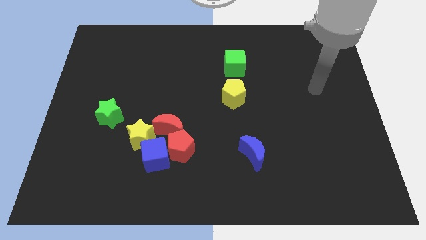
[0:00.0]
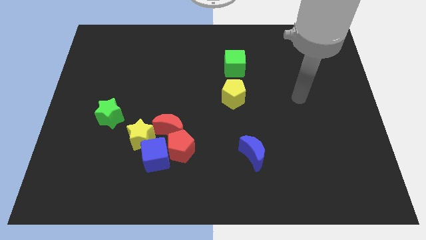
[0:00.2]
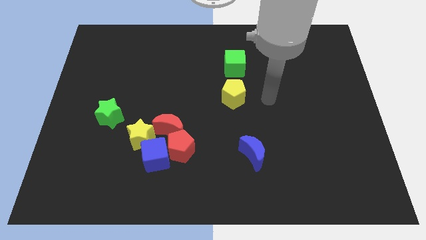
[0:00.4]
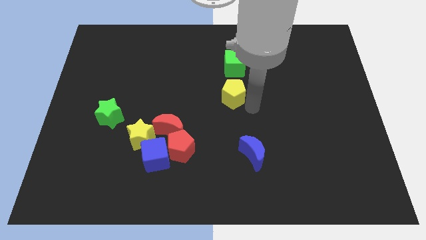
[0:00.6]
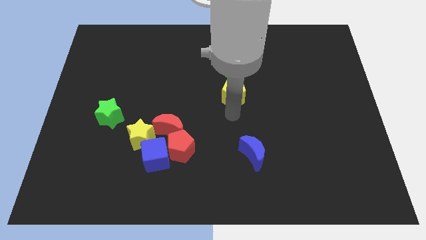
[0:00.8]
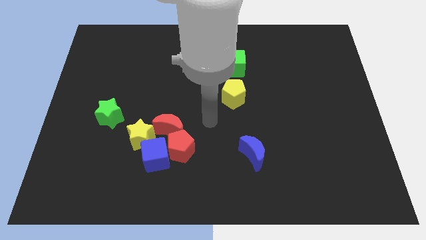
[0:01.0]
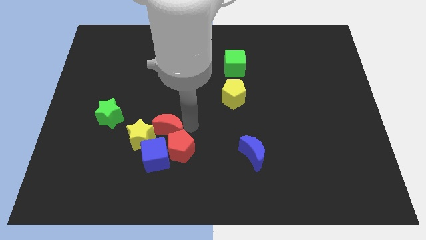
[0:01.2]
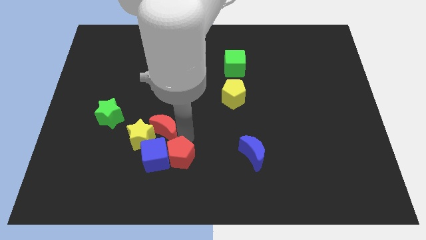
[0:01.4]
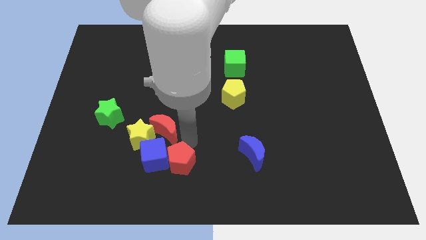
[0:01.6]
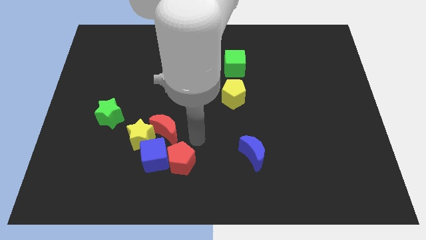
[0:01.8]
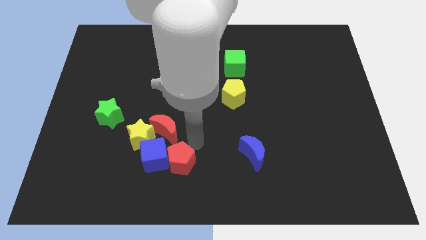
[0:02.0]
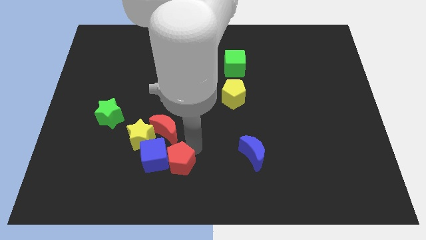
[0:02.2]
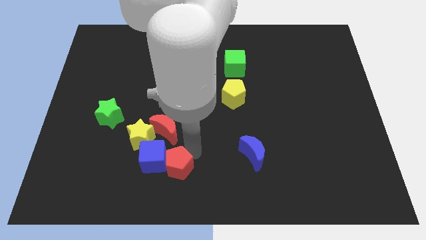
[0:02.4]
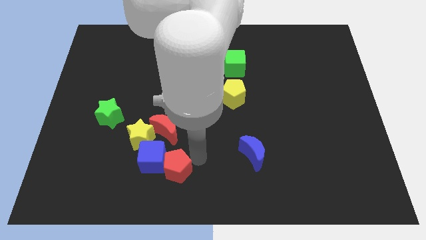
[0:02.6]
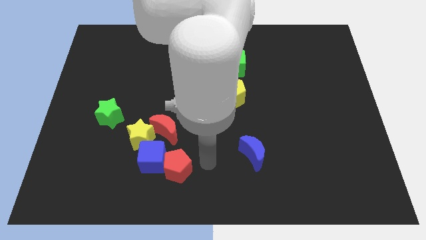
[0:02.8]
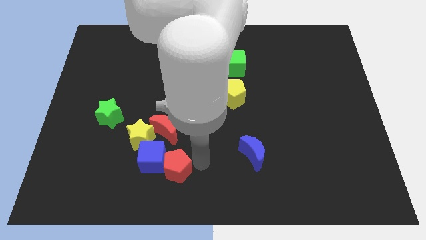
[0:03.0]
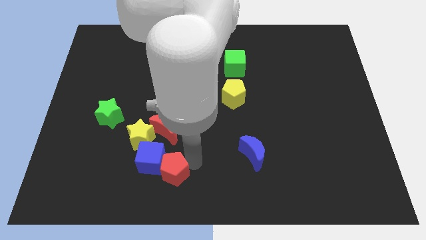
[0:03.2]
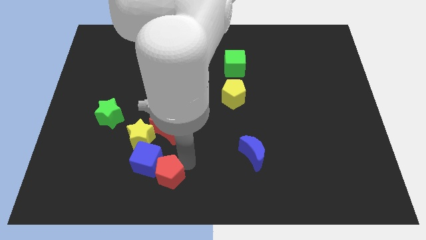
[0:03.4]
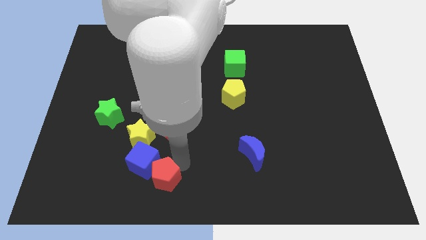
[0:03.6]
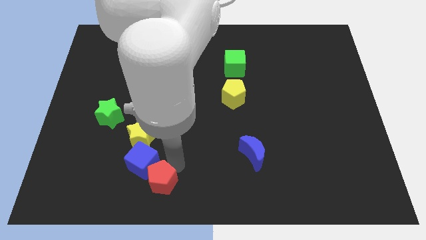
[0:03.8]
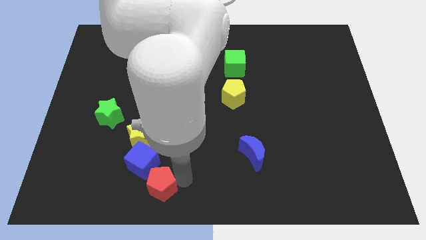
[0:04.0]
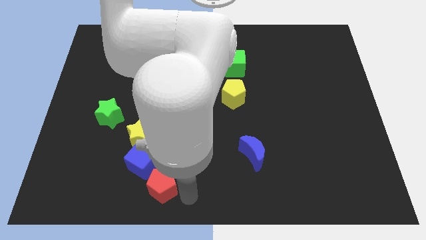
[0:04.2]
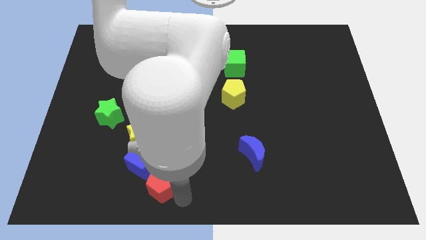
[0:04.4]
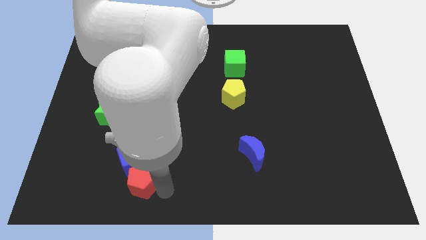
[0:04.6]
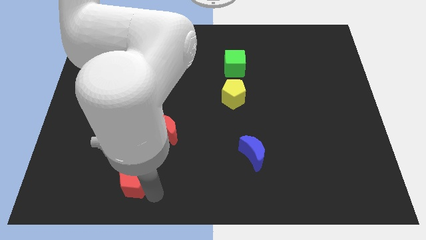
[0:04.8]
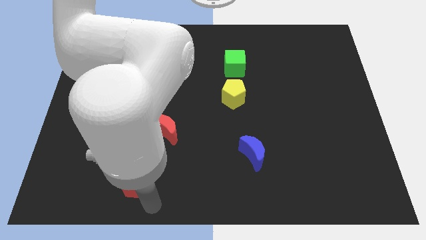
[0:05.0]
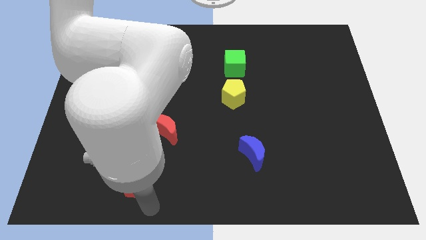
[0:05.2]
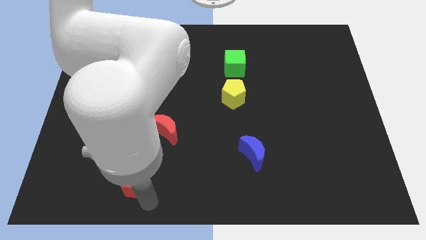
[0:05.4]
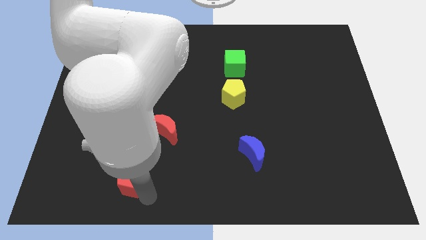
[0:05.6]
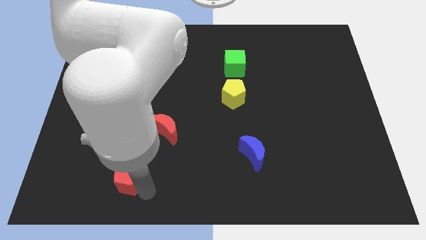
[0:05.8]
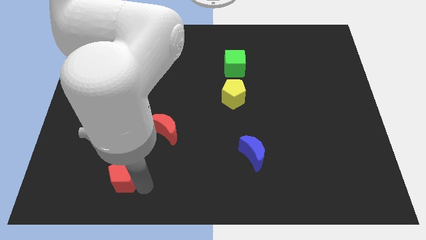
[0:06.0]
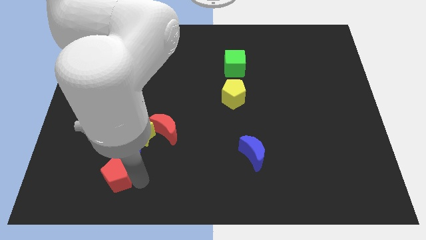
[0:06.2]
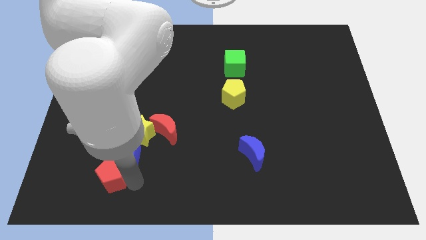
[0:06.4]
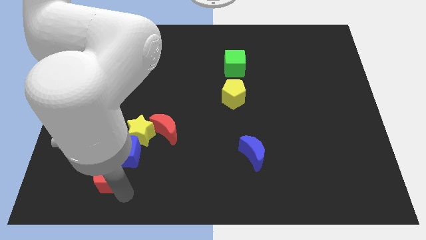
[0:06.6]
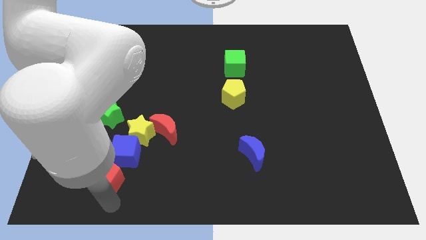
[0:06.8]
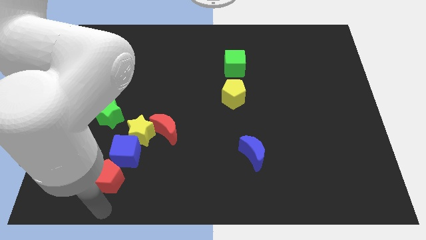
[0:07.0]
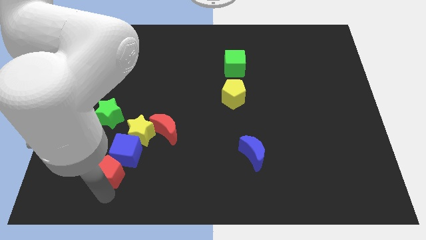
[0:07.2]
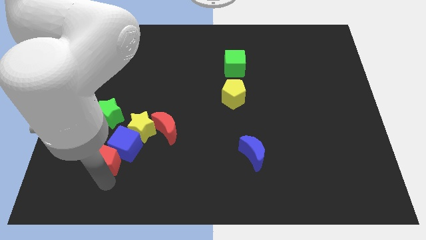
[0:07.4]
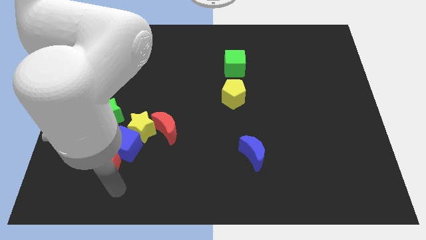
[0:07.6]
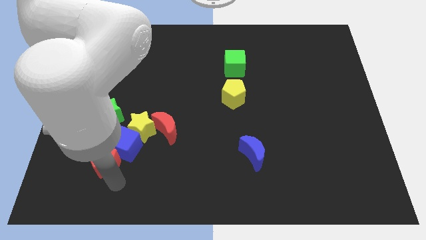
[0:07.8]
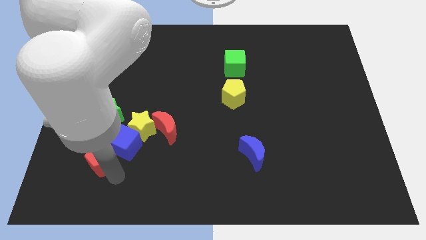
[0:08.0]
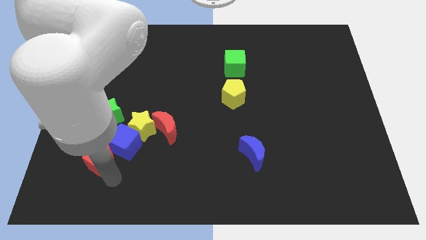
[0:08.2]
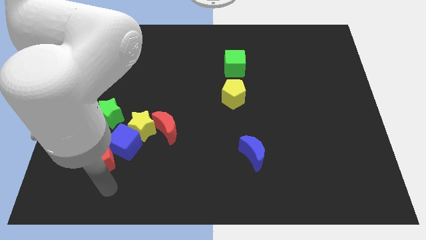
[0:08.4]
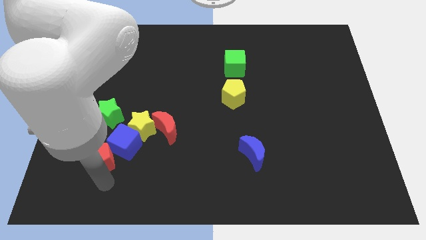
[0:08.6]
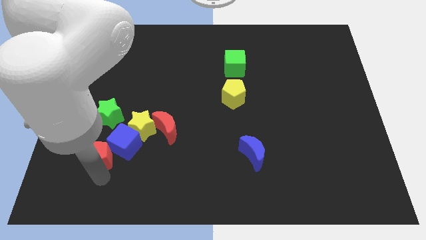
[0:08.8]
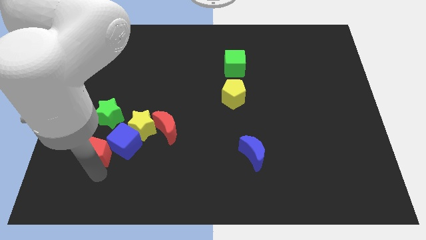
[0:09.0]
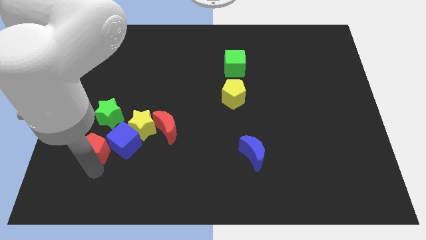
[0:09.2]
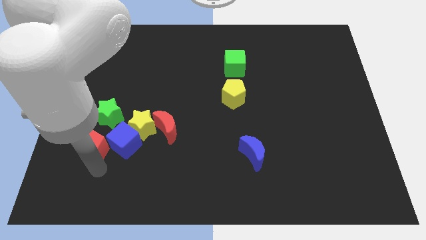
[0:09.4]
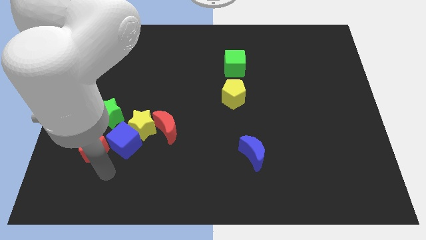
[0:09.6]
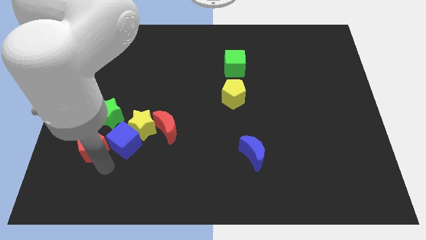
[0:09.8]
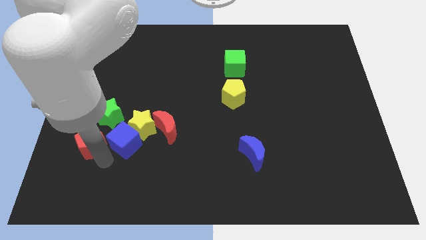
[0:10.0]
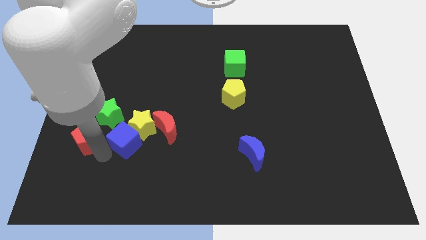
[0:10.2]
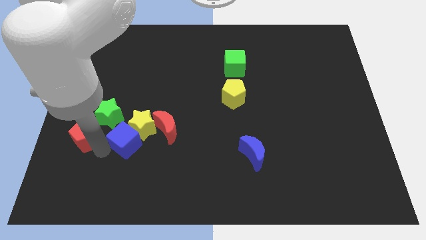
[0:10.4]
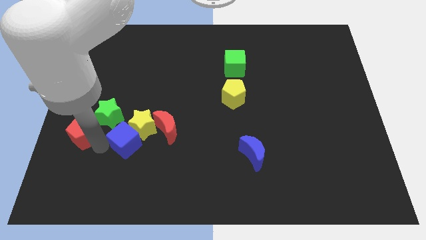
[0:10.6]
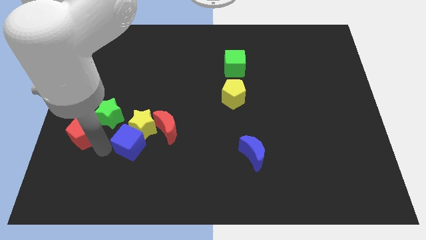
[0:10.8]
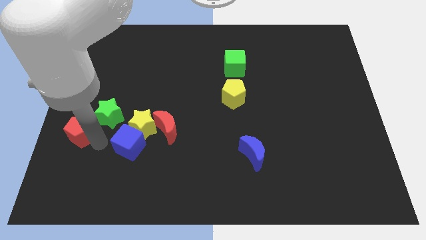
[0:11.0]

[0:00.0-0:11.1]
push the red pentagon to the left side

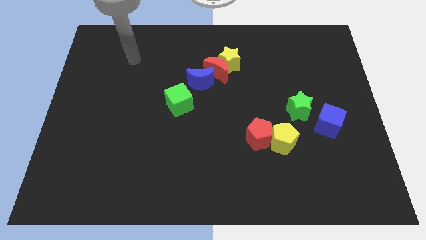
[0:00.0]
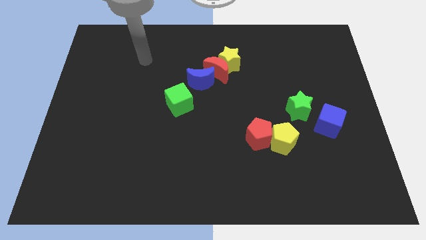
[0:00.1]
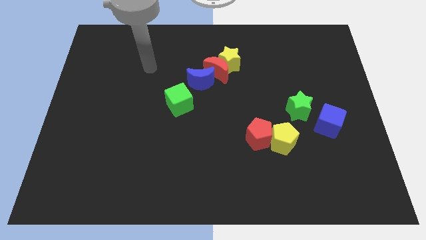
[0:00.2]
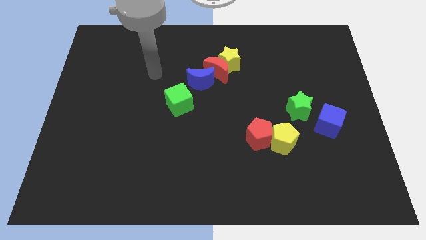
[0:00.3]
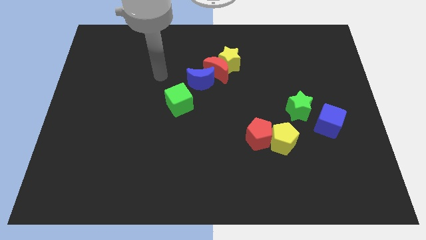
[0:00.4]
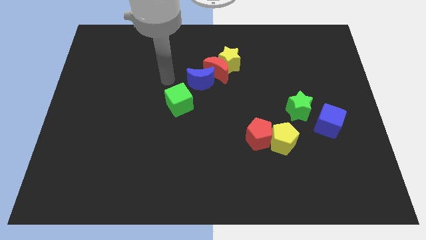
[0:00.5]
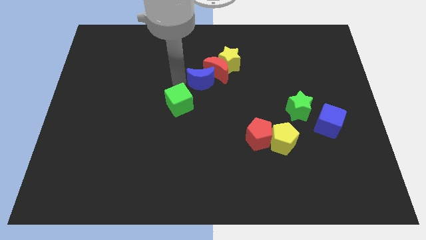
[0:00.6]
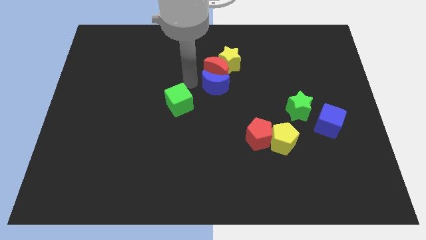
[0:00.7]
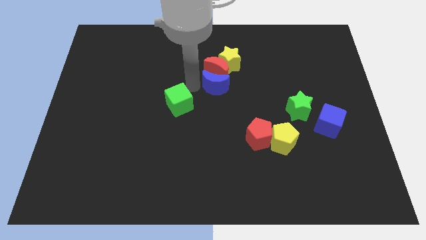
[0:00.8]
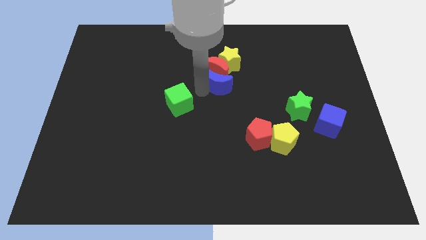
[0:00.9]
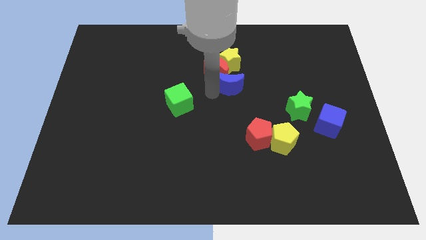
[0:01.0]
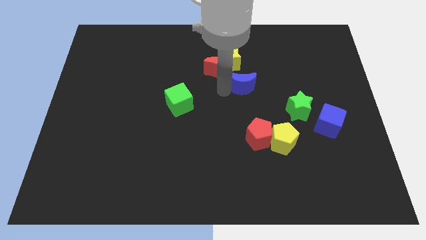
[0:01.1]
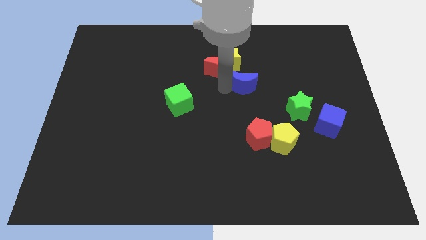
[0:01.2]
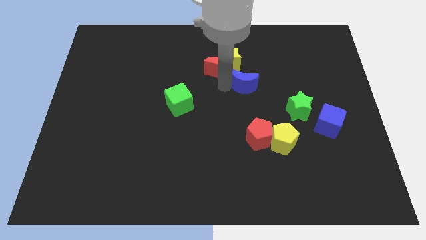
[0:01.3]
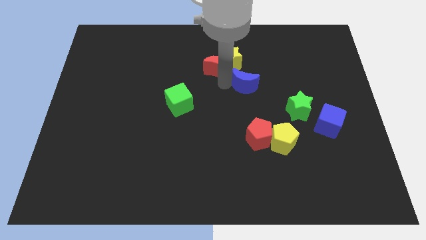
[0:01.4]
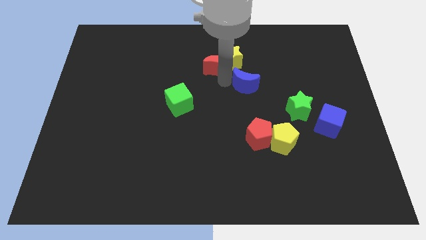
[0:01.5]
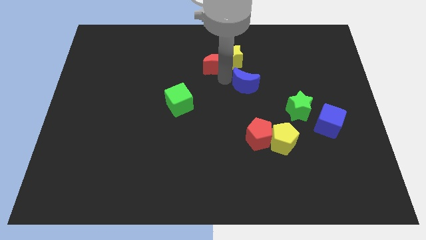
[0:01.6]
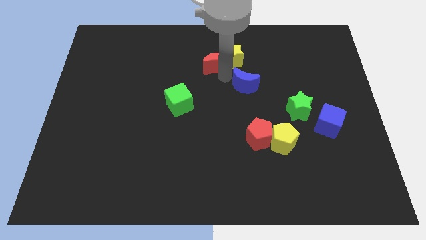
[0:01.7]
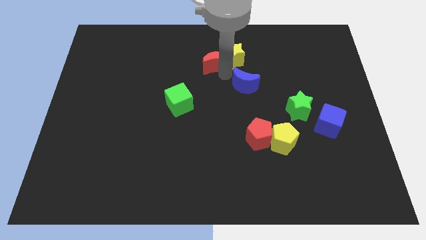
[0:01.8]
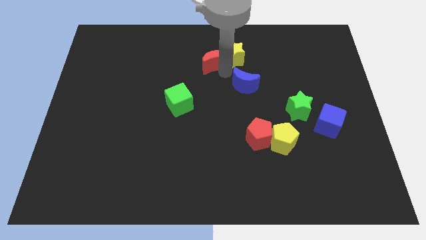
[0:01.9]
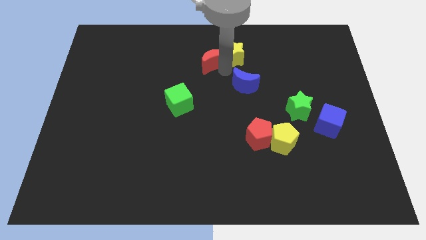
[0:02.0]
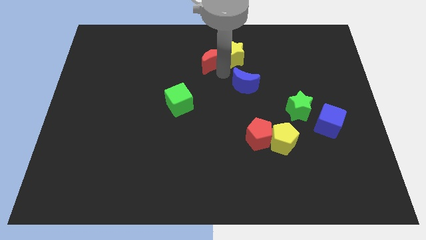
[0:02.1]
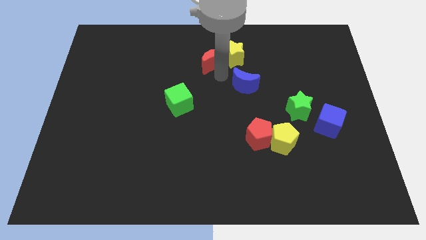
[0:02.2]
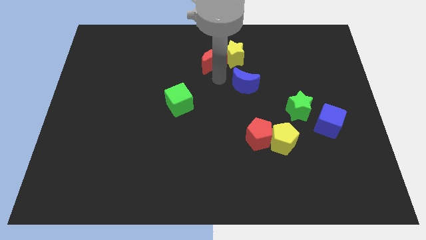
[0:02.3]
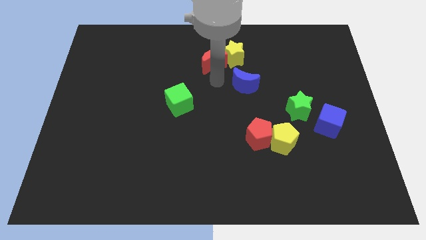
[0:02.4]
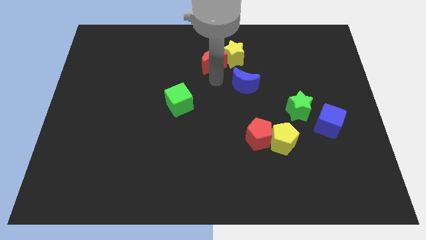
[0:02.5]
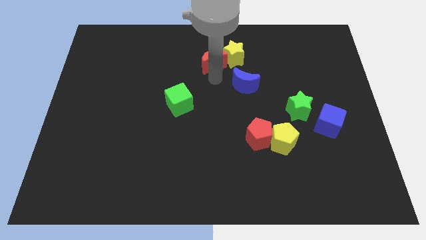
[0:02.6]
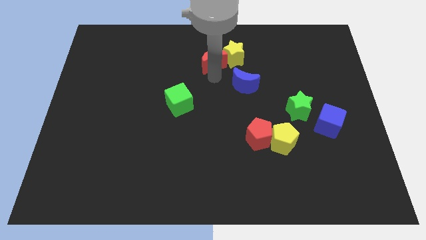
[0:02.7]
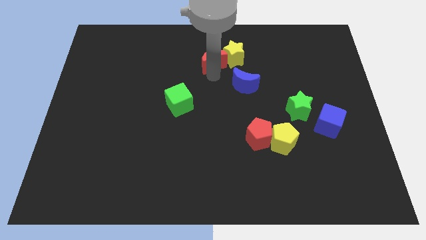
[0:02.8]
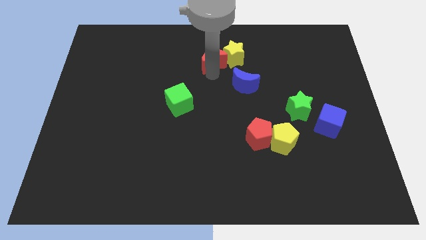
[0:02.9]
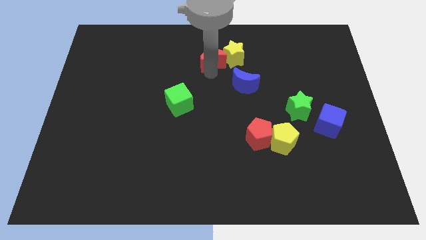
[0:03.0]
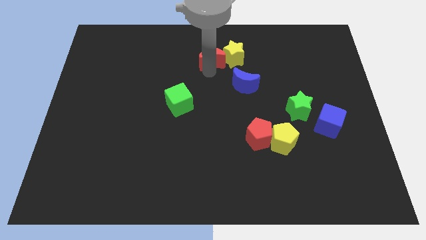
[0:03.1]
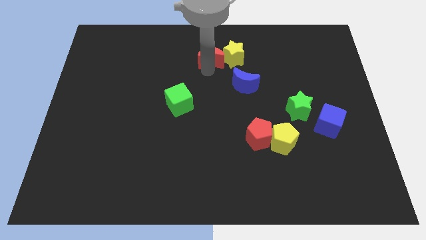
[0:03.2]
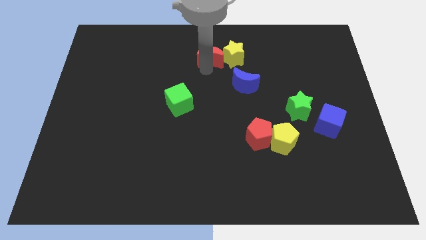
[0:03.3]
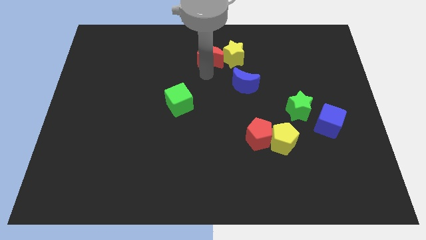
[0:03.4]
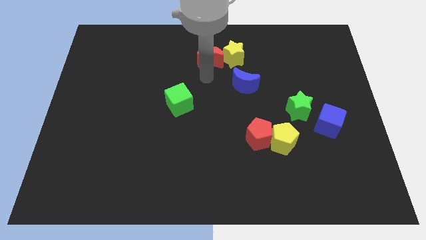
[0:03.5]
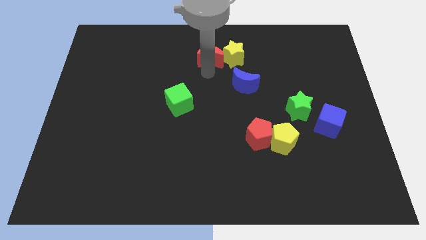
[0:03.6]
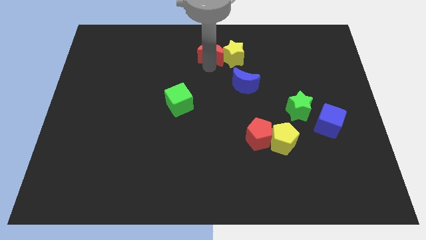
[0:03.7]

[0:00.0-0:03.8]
put the red moon to the top side
